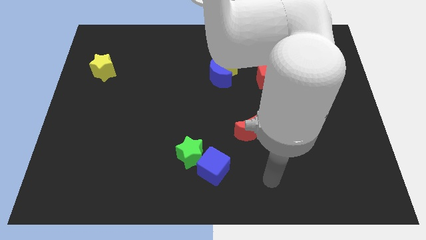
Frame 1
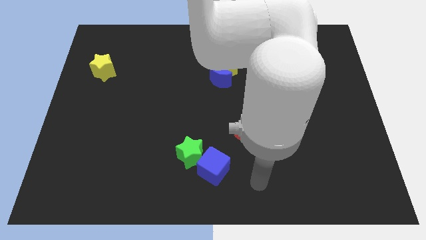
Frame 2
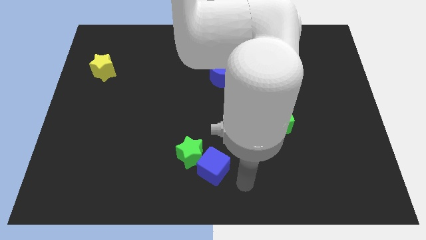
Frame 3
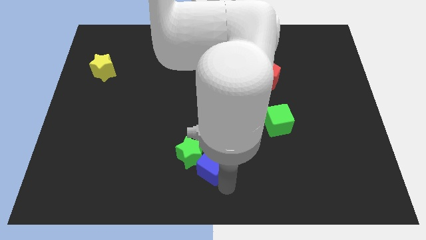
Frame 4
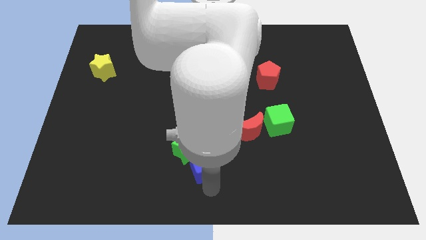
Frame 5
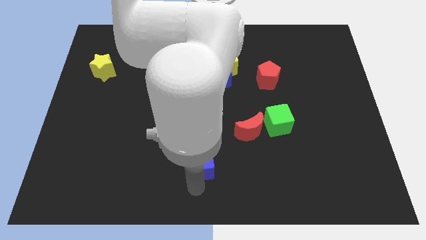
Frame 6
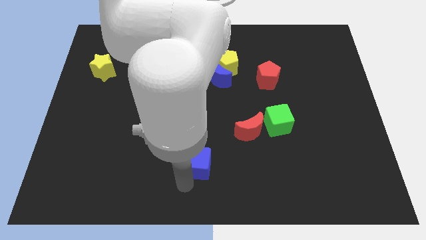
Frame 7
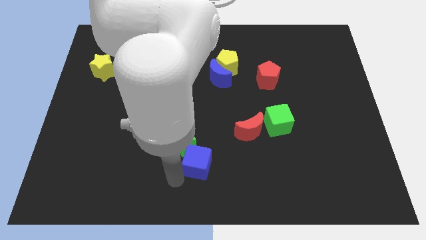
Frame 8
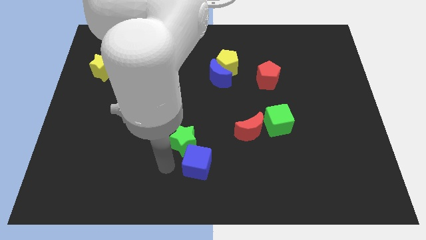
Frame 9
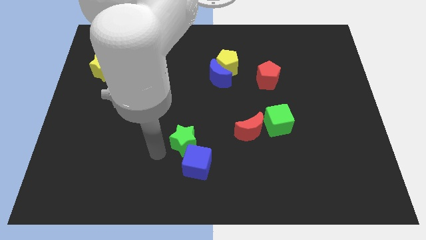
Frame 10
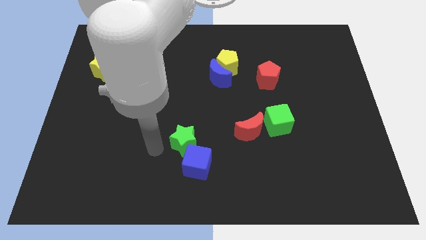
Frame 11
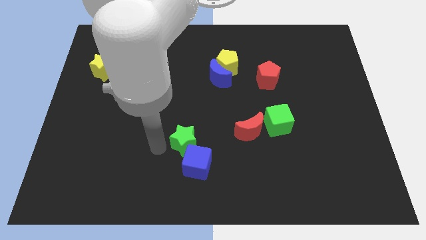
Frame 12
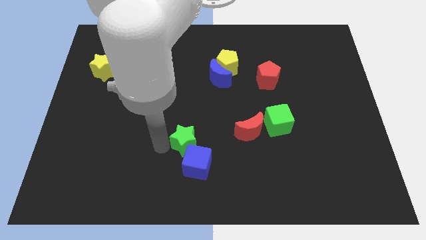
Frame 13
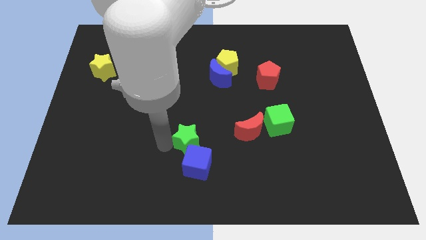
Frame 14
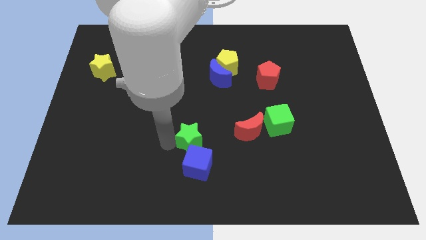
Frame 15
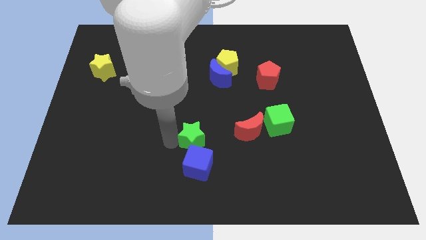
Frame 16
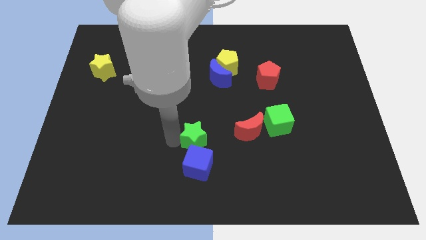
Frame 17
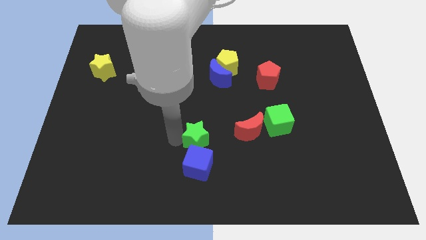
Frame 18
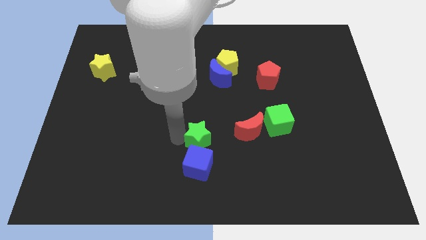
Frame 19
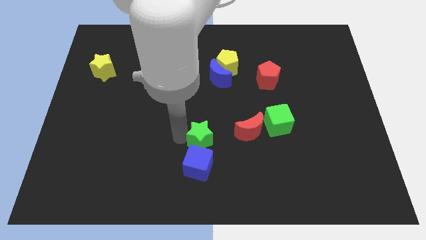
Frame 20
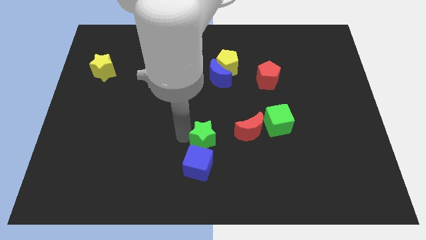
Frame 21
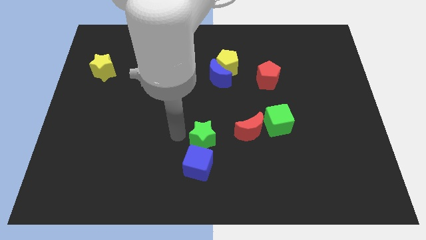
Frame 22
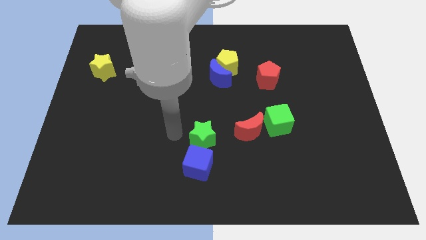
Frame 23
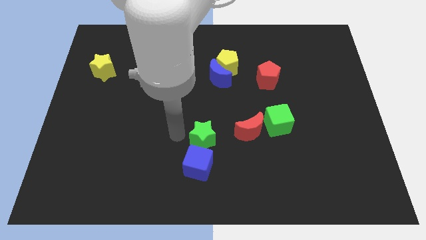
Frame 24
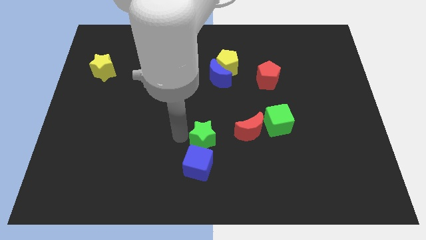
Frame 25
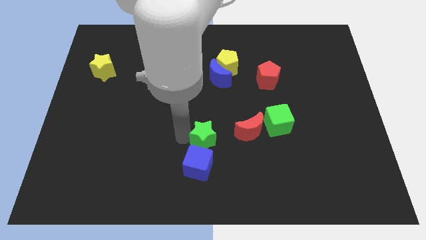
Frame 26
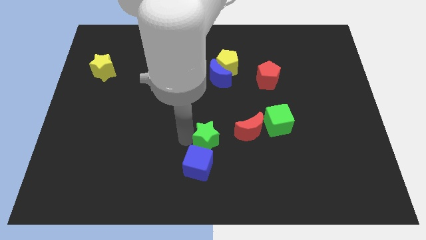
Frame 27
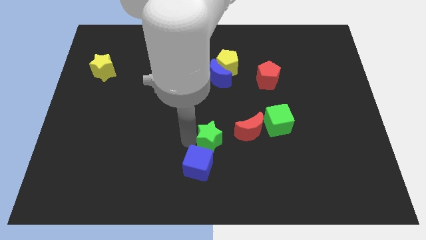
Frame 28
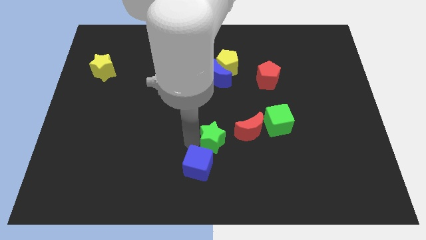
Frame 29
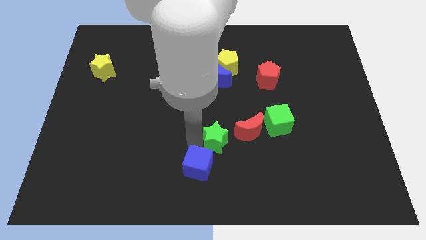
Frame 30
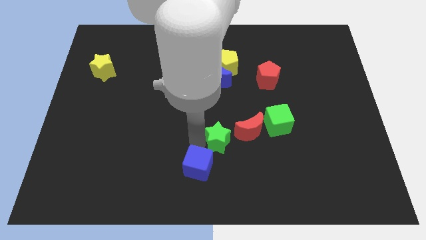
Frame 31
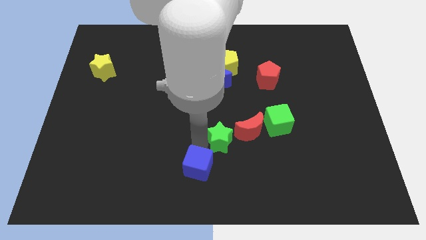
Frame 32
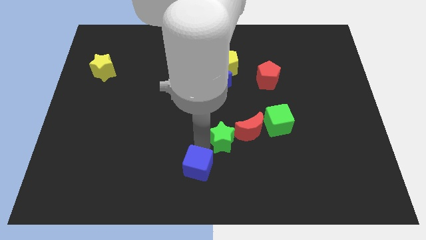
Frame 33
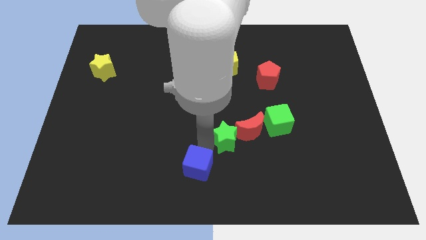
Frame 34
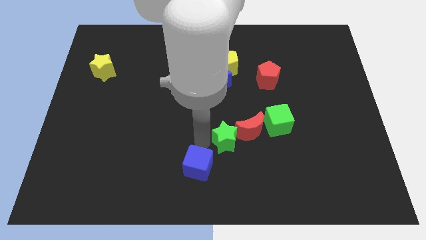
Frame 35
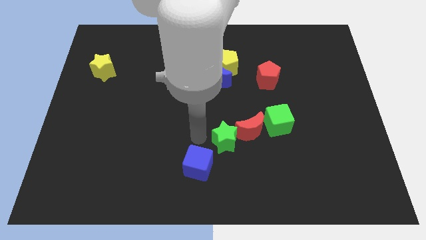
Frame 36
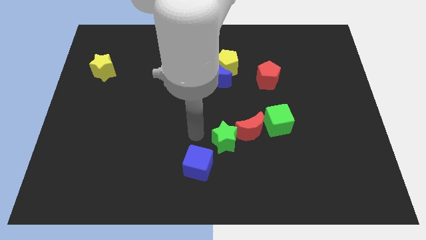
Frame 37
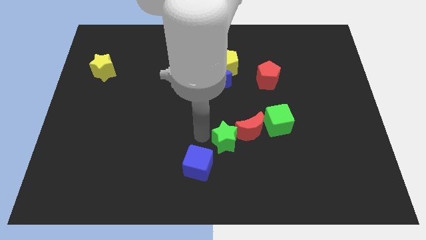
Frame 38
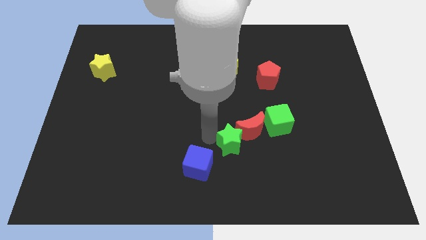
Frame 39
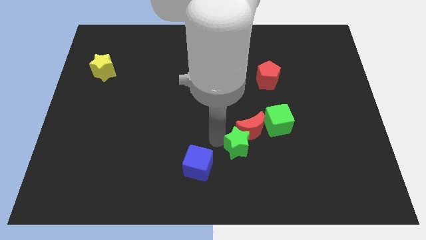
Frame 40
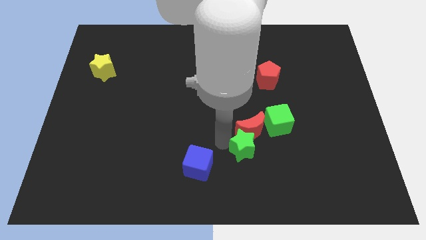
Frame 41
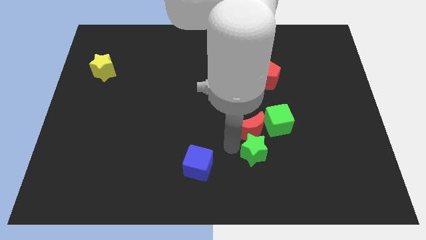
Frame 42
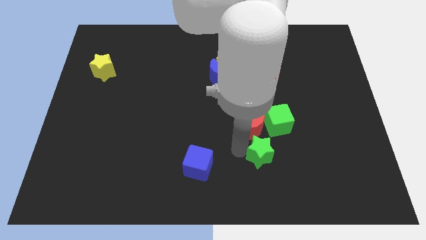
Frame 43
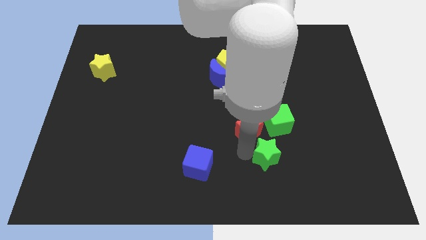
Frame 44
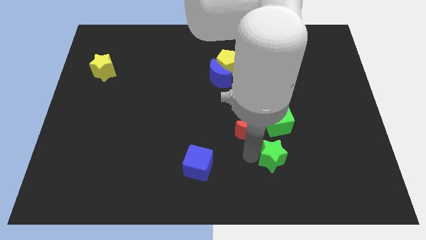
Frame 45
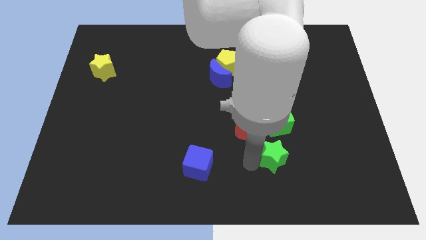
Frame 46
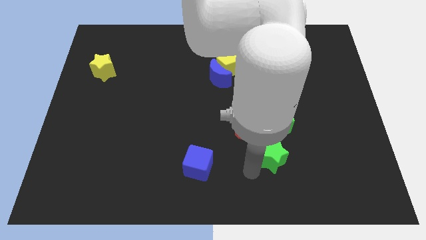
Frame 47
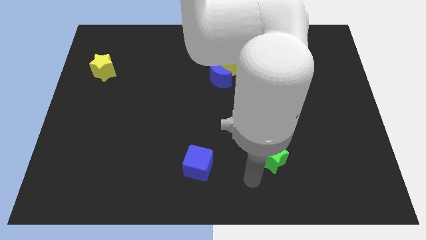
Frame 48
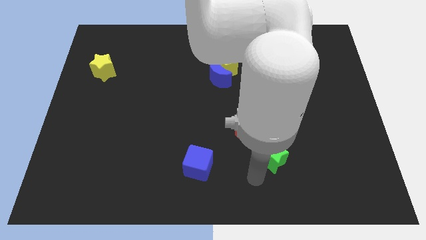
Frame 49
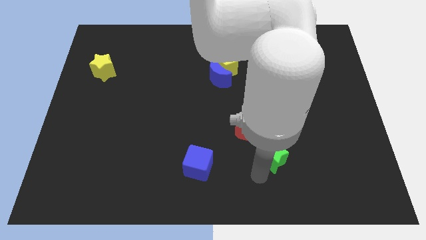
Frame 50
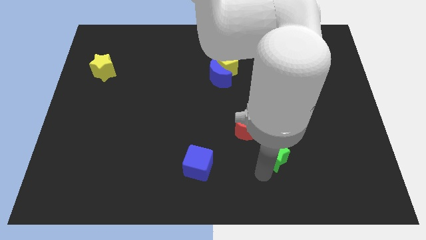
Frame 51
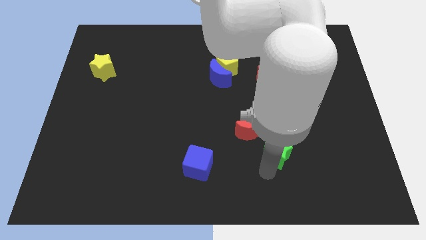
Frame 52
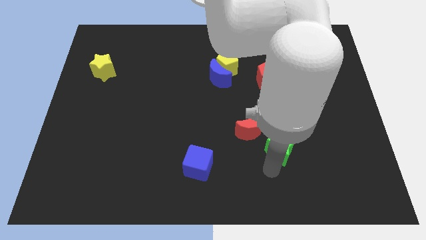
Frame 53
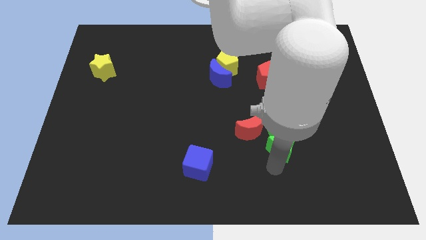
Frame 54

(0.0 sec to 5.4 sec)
put the green star to the right of the red moon

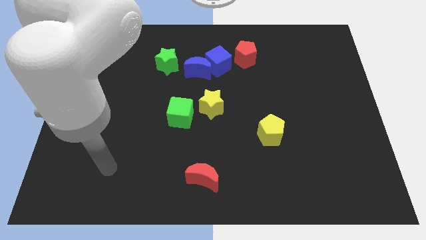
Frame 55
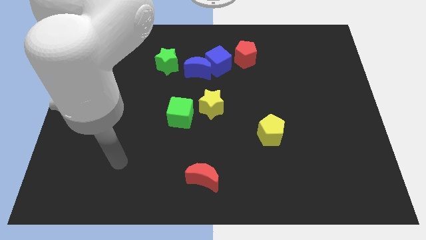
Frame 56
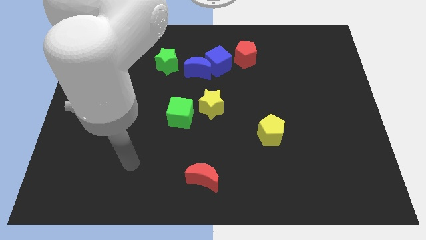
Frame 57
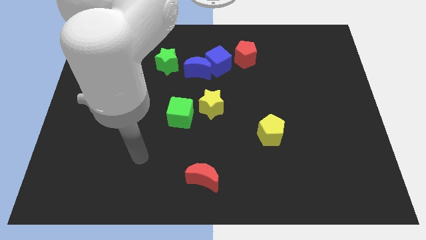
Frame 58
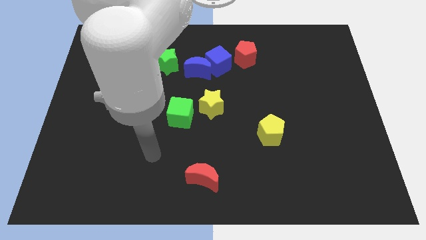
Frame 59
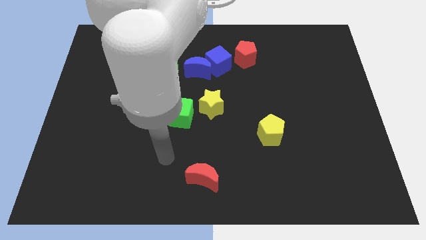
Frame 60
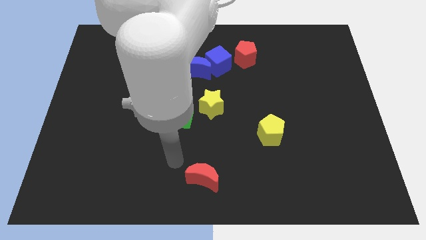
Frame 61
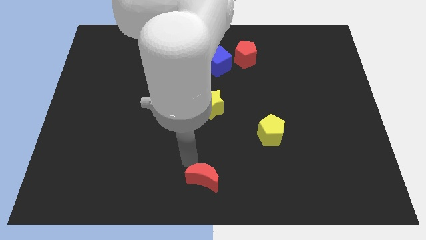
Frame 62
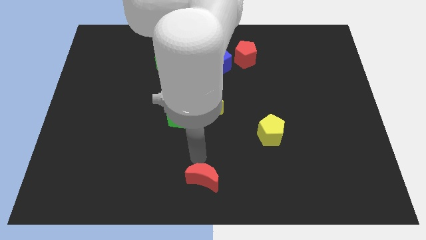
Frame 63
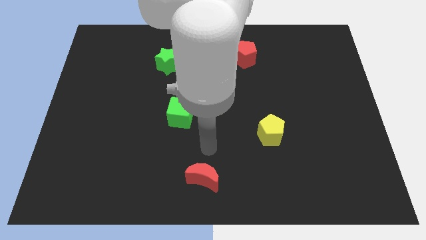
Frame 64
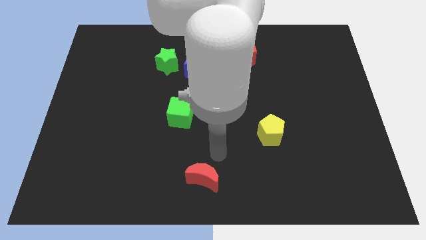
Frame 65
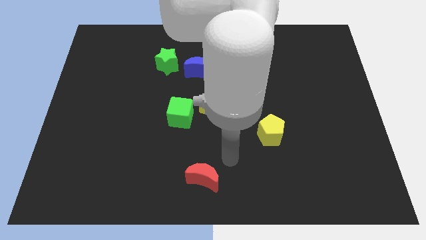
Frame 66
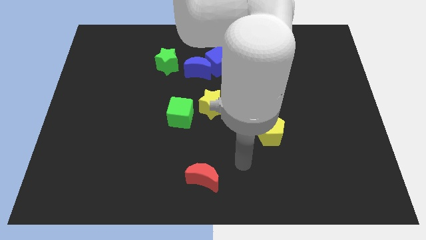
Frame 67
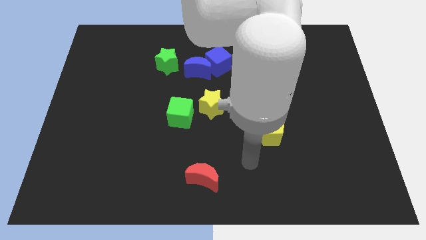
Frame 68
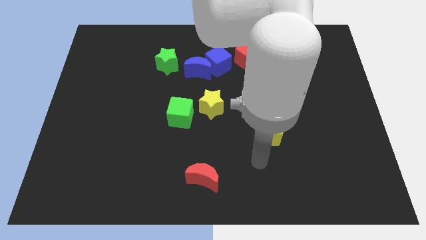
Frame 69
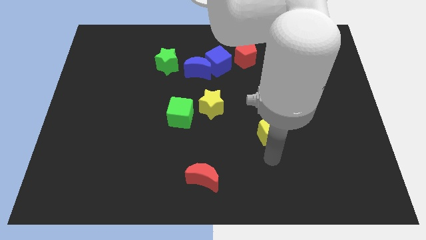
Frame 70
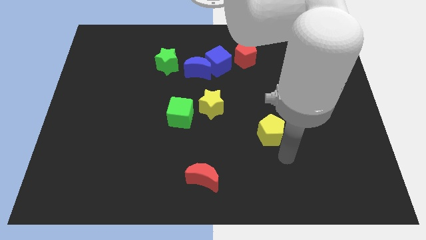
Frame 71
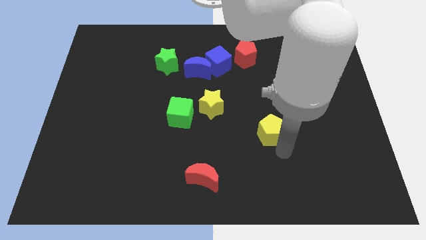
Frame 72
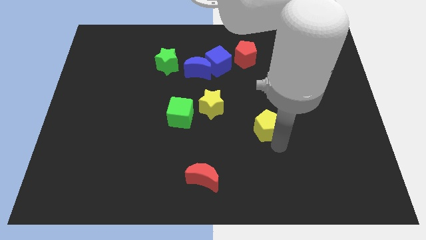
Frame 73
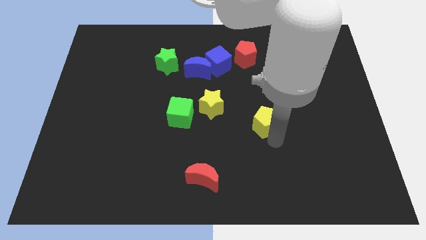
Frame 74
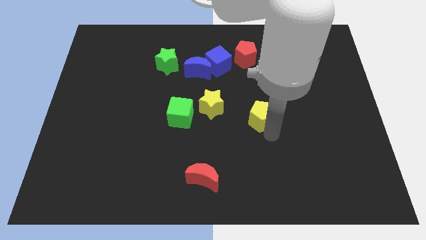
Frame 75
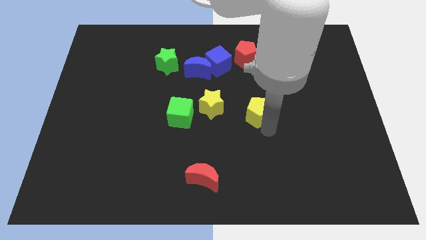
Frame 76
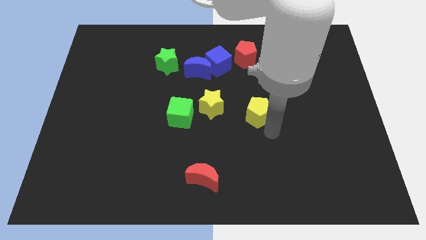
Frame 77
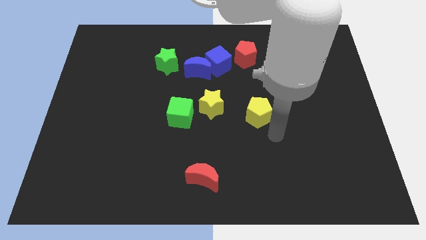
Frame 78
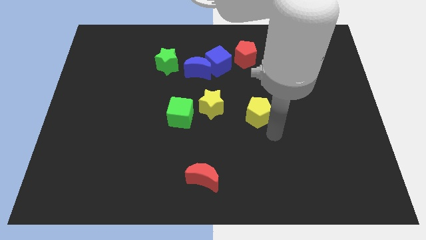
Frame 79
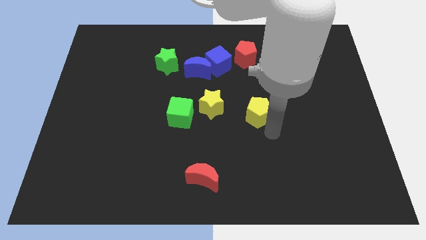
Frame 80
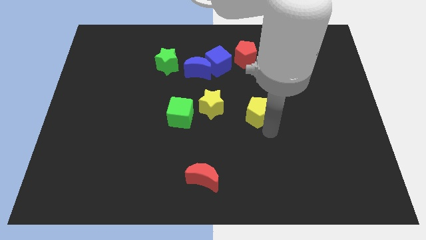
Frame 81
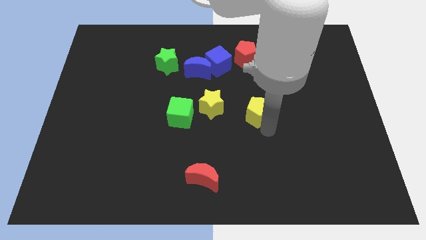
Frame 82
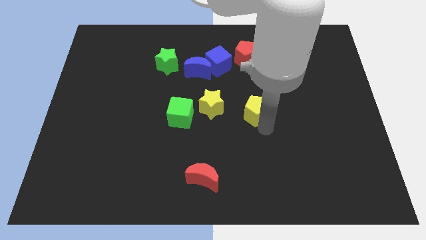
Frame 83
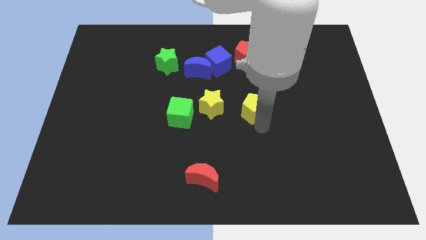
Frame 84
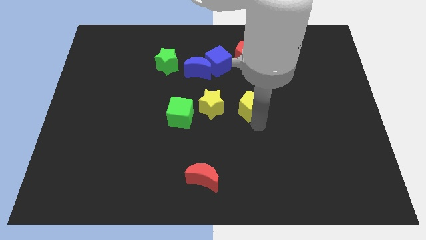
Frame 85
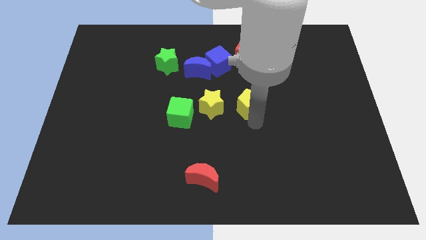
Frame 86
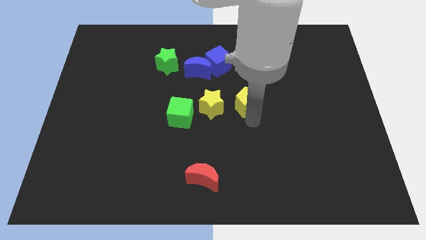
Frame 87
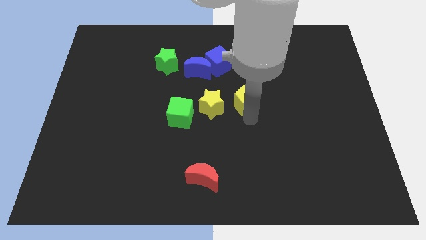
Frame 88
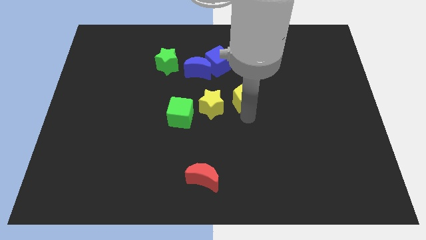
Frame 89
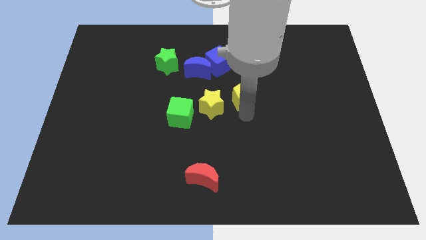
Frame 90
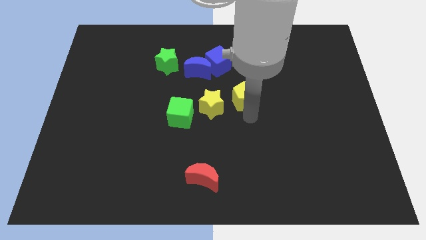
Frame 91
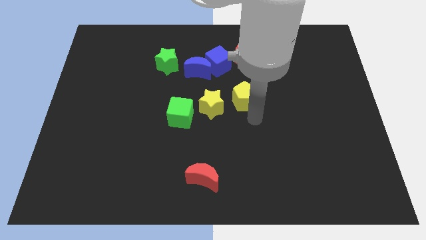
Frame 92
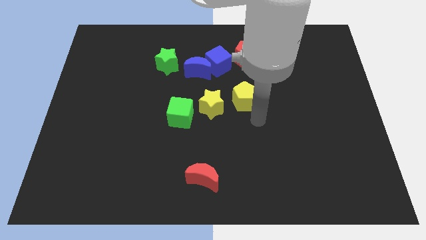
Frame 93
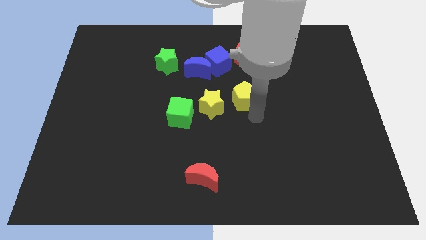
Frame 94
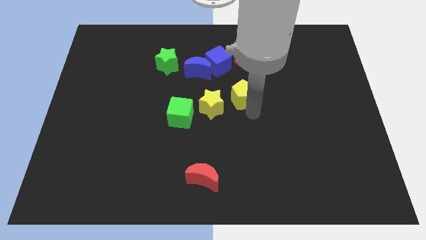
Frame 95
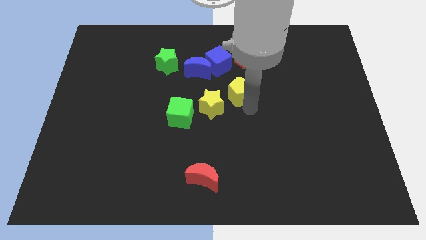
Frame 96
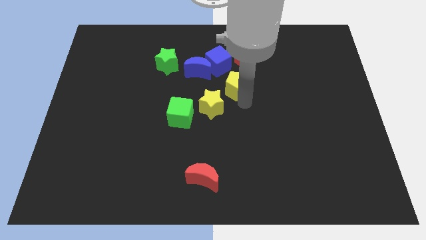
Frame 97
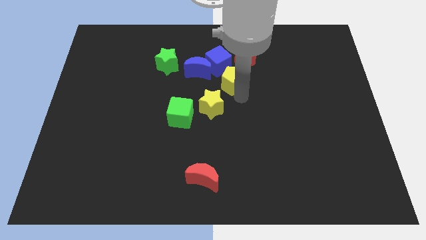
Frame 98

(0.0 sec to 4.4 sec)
move the yellow pentagon diagonally down and to the left of the red pentagon
